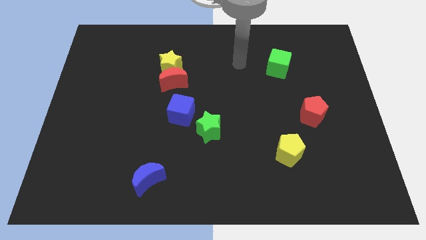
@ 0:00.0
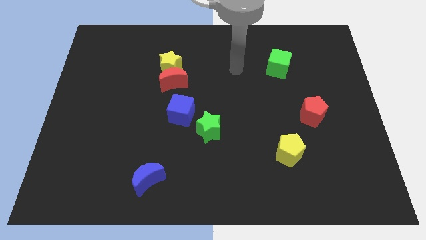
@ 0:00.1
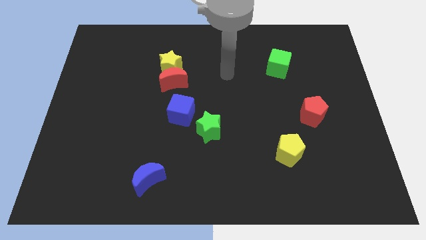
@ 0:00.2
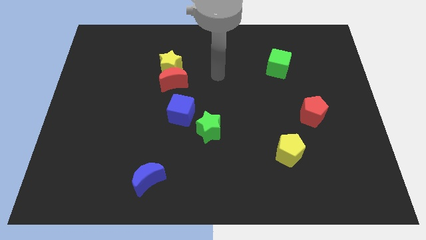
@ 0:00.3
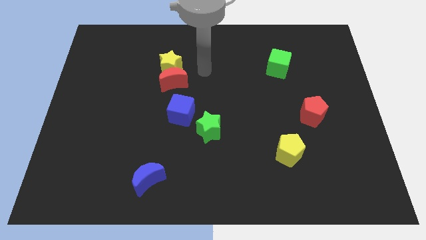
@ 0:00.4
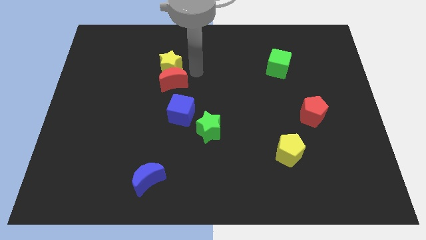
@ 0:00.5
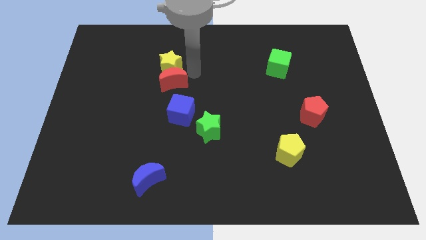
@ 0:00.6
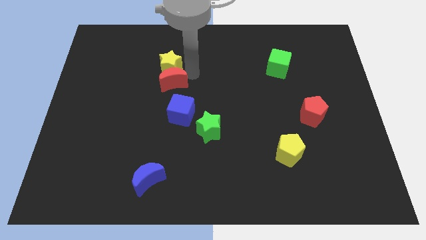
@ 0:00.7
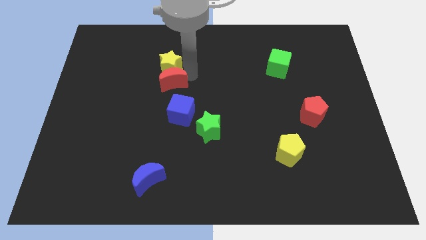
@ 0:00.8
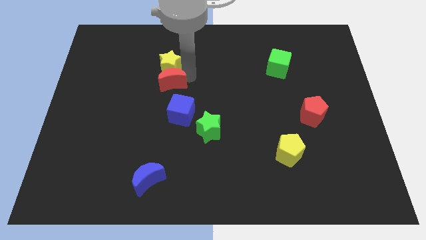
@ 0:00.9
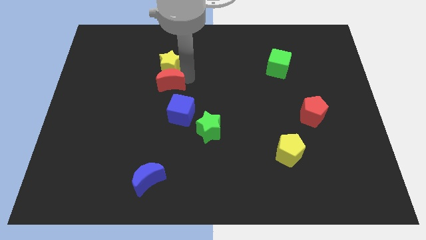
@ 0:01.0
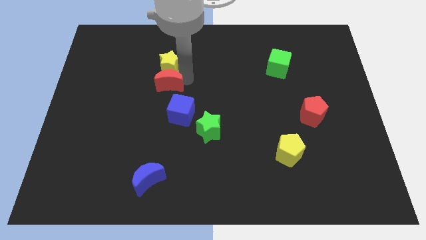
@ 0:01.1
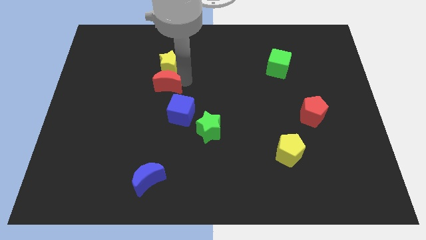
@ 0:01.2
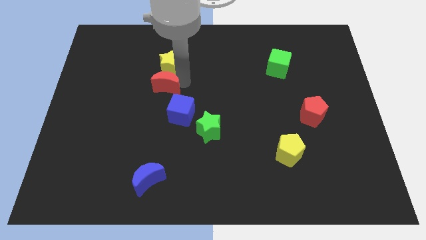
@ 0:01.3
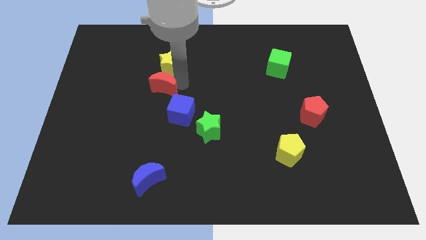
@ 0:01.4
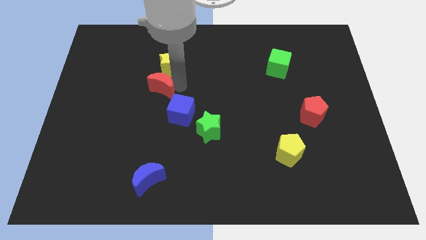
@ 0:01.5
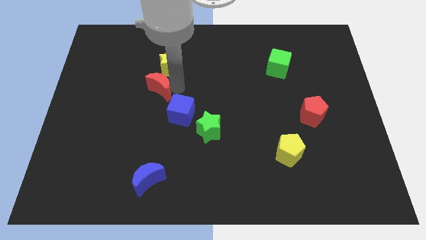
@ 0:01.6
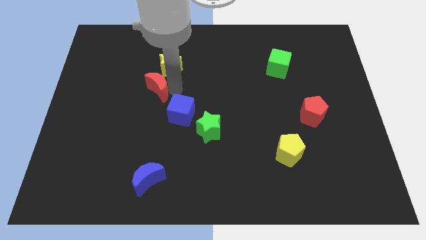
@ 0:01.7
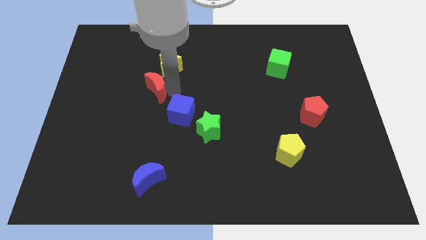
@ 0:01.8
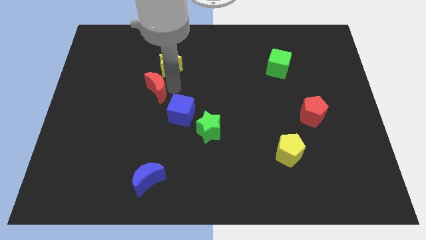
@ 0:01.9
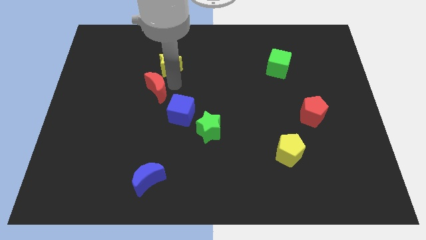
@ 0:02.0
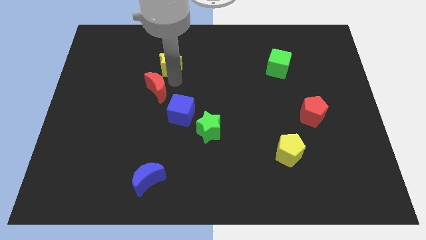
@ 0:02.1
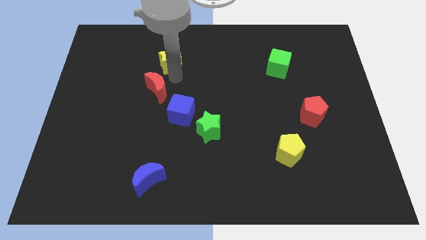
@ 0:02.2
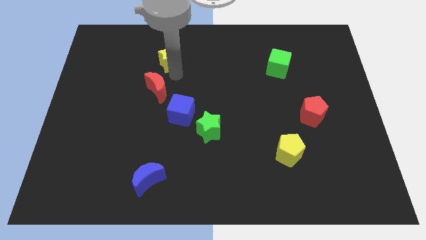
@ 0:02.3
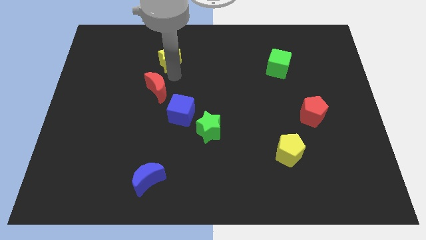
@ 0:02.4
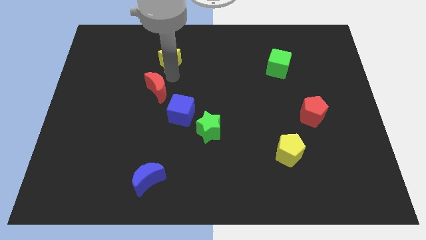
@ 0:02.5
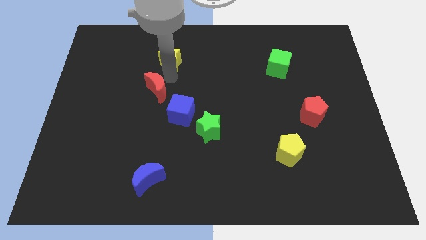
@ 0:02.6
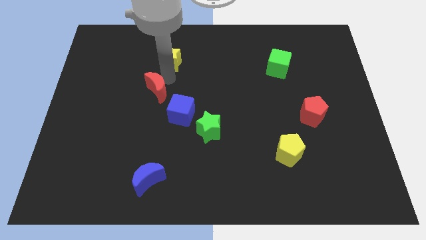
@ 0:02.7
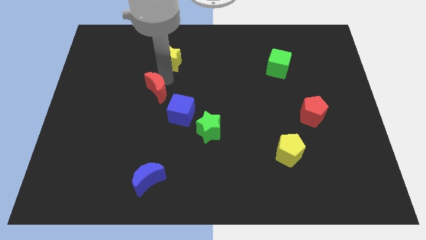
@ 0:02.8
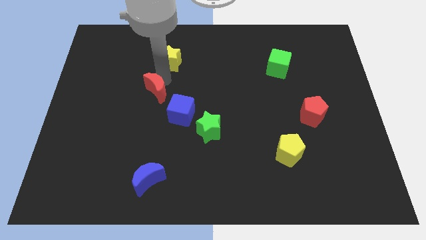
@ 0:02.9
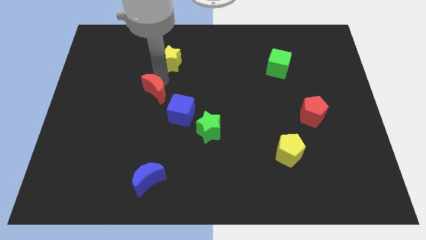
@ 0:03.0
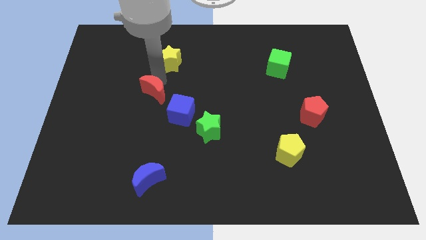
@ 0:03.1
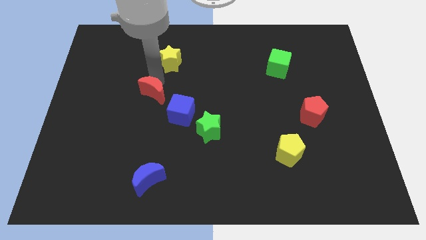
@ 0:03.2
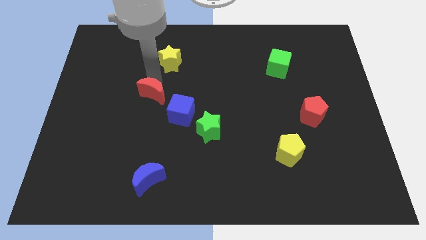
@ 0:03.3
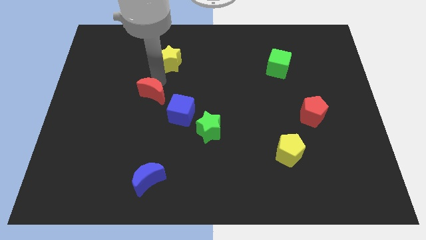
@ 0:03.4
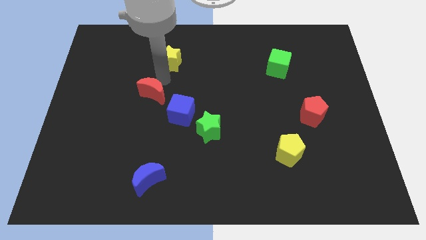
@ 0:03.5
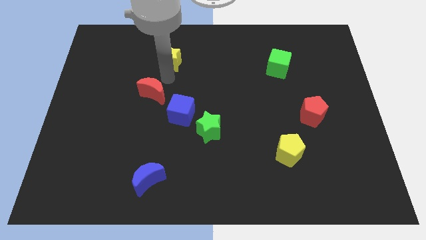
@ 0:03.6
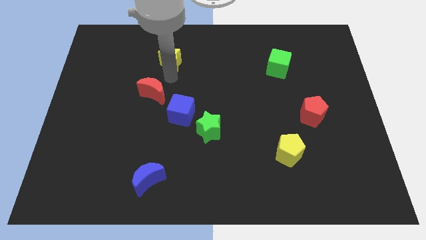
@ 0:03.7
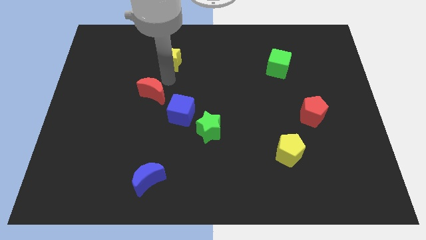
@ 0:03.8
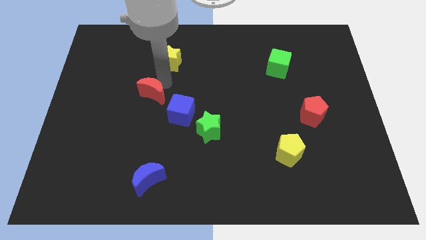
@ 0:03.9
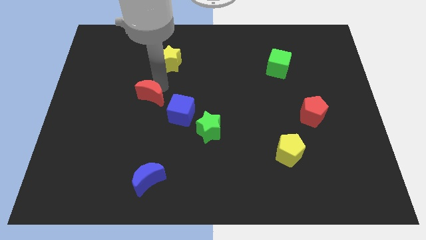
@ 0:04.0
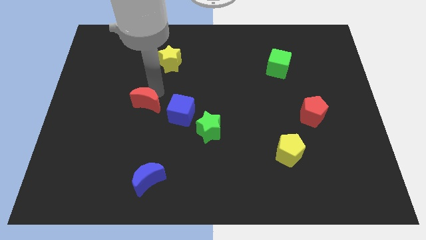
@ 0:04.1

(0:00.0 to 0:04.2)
move the red moon a little down and then left

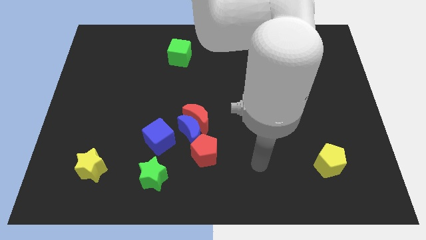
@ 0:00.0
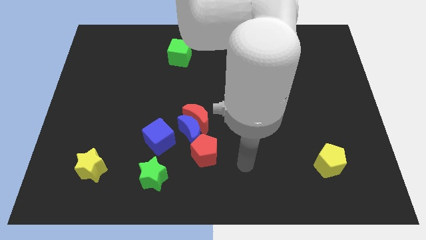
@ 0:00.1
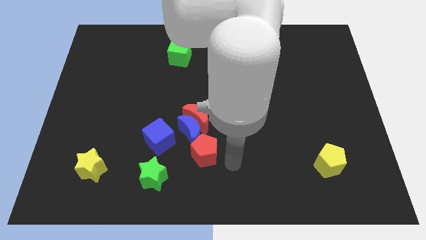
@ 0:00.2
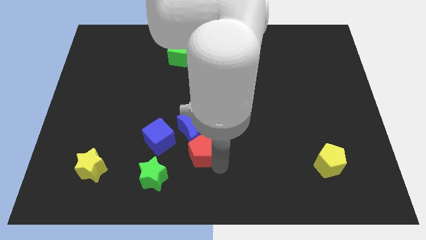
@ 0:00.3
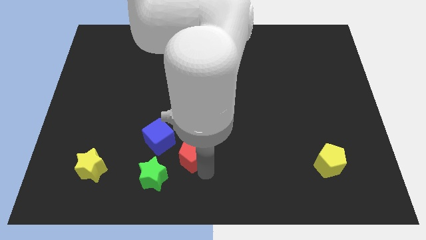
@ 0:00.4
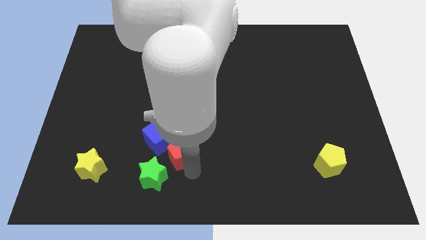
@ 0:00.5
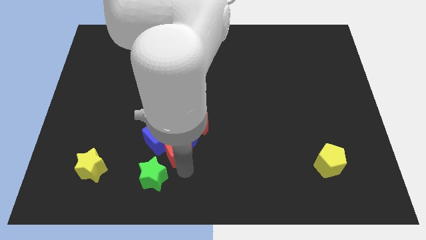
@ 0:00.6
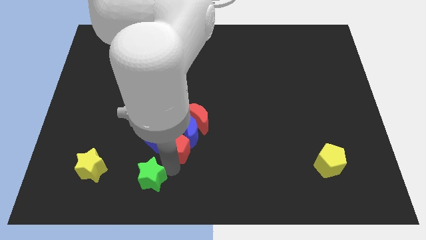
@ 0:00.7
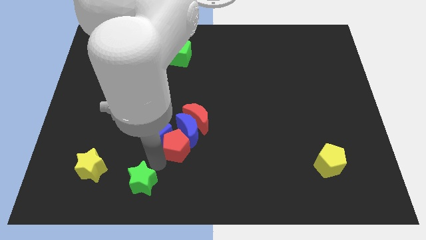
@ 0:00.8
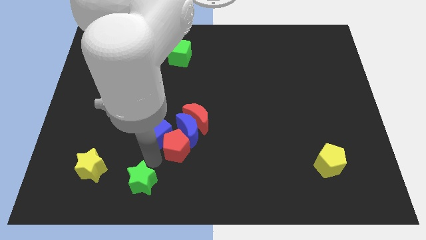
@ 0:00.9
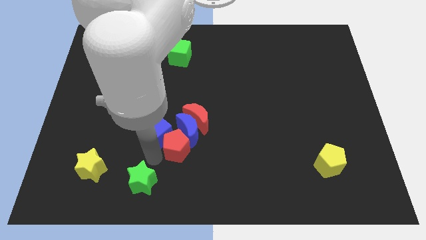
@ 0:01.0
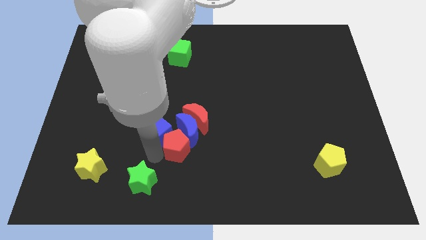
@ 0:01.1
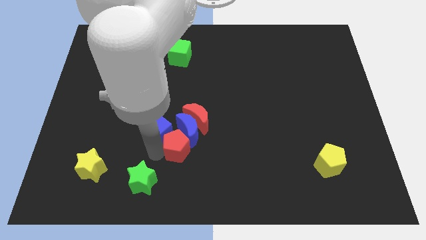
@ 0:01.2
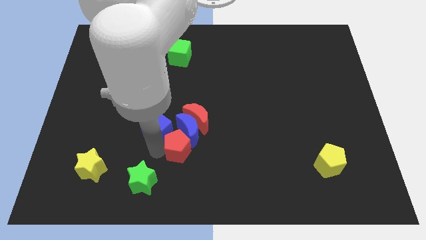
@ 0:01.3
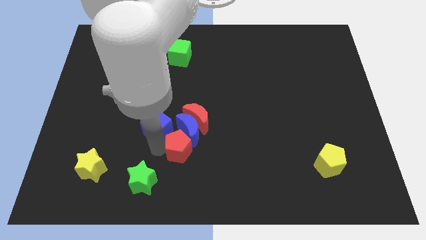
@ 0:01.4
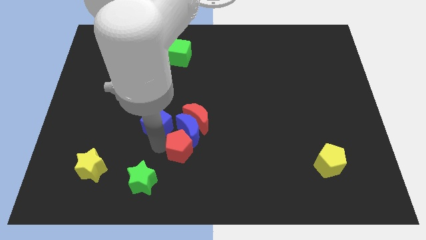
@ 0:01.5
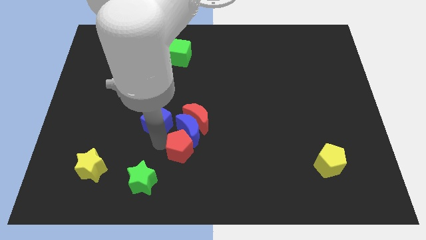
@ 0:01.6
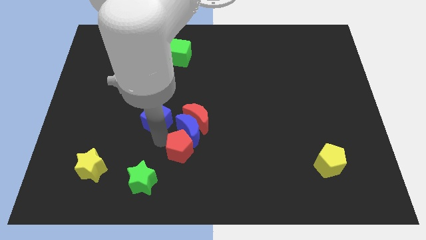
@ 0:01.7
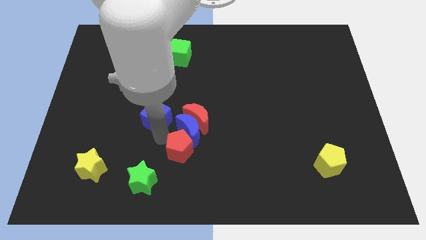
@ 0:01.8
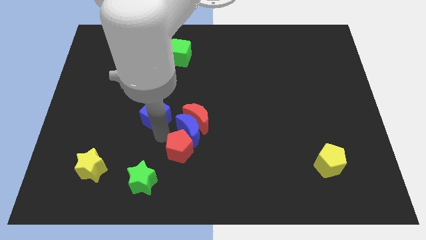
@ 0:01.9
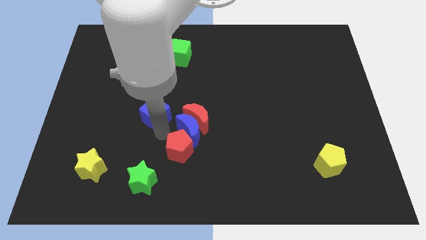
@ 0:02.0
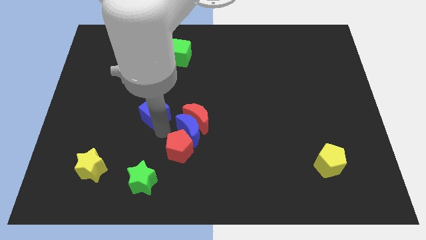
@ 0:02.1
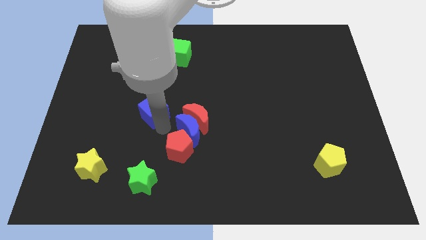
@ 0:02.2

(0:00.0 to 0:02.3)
slightly slide the blue cube up

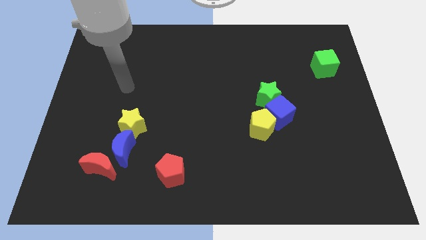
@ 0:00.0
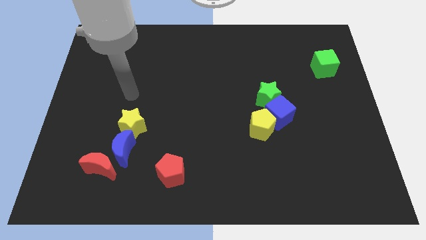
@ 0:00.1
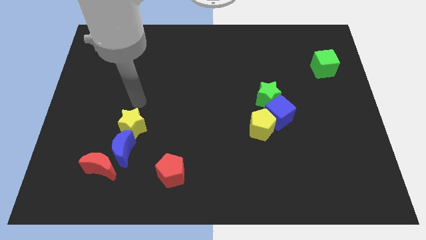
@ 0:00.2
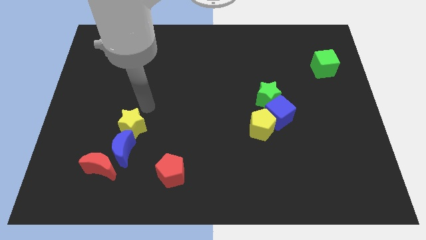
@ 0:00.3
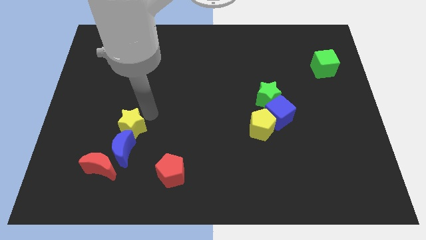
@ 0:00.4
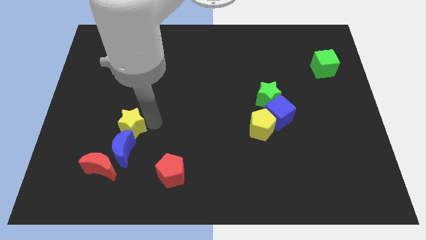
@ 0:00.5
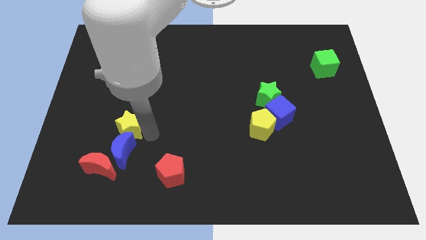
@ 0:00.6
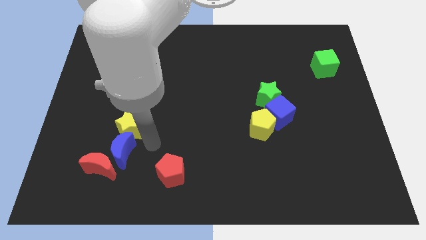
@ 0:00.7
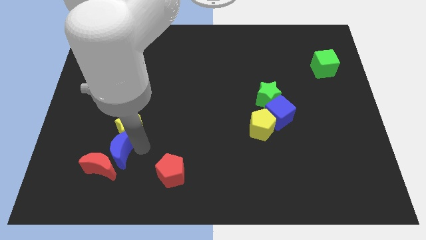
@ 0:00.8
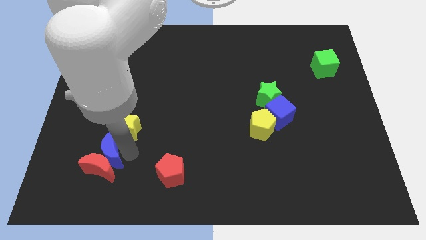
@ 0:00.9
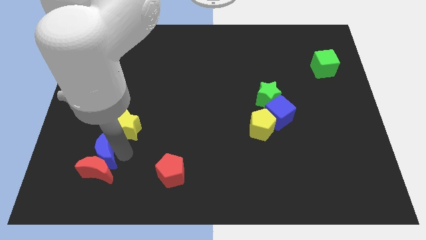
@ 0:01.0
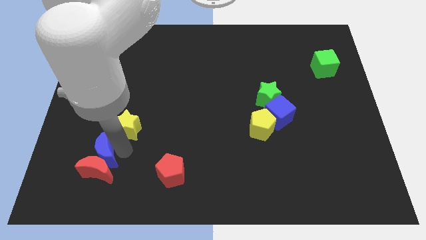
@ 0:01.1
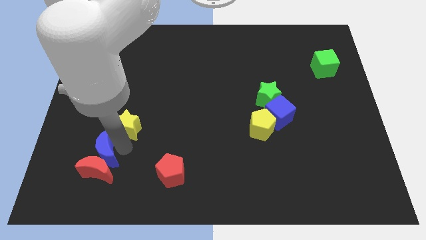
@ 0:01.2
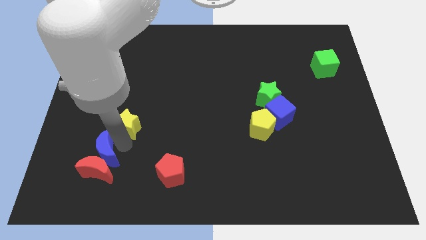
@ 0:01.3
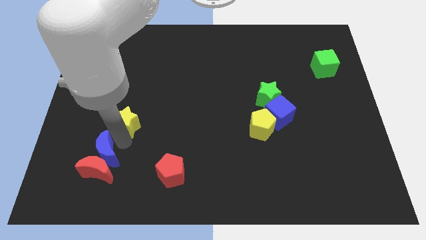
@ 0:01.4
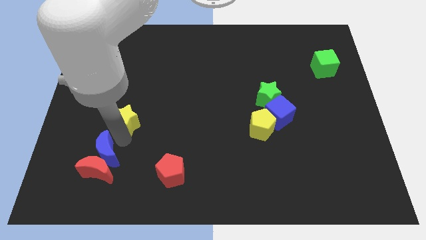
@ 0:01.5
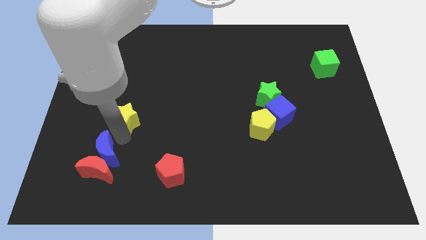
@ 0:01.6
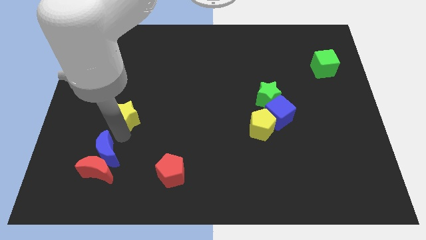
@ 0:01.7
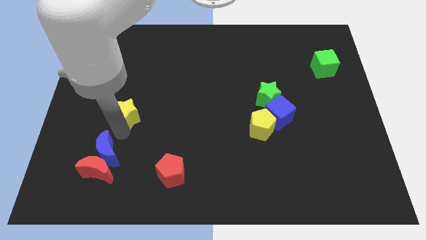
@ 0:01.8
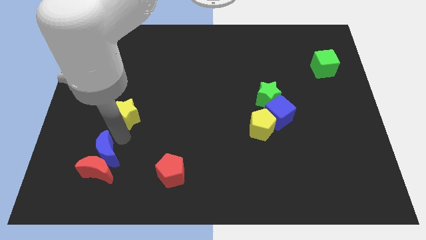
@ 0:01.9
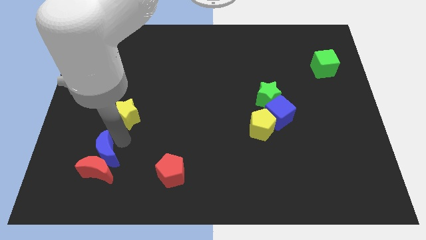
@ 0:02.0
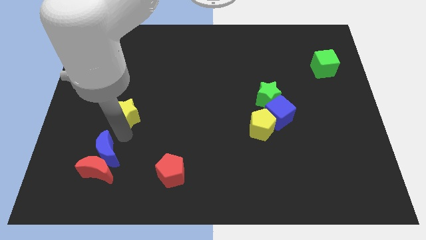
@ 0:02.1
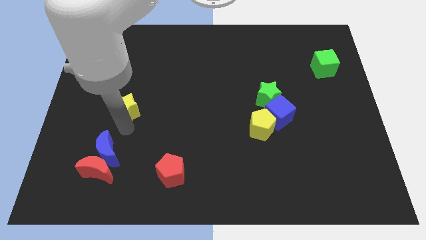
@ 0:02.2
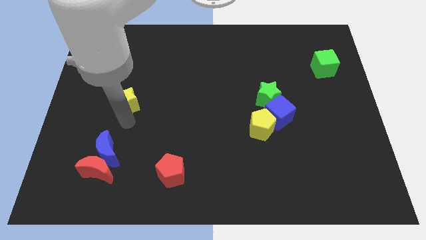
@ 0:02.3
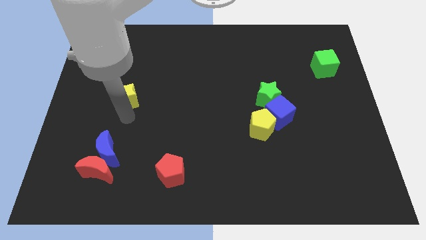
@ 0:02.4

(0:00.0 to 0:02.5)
move the yellow star somewhat up
